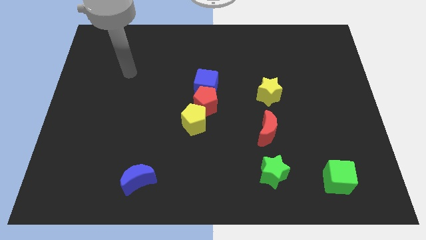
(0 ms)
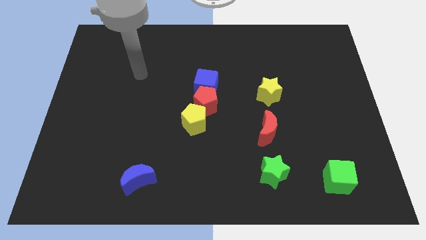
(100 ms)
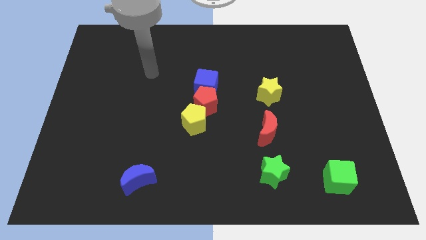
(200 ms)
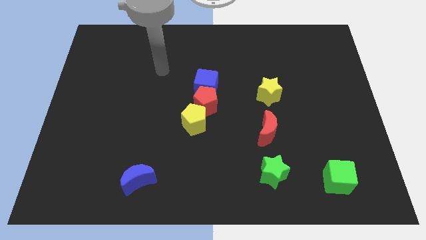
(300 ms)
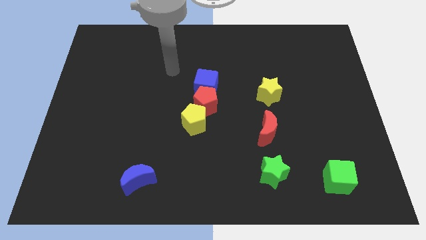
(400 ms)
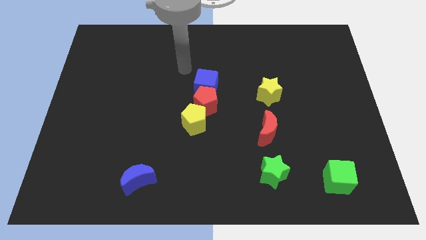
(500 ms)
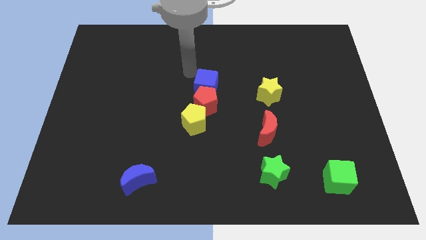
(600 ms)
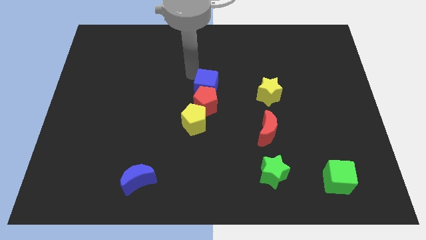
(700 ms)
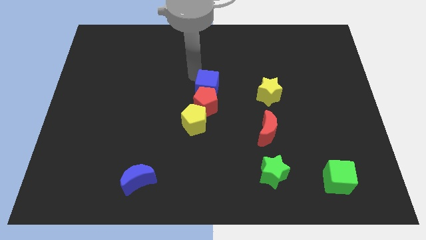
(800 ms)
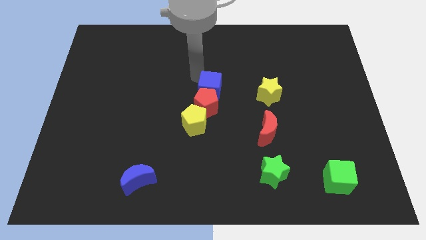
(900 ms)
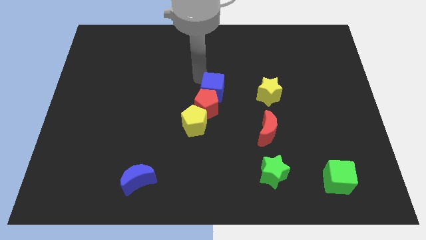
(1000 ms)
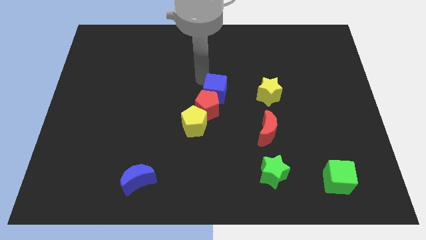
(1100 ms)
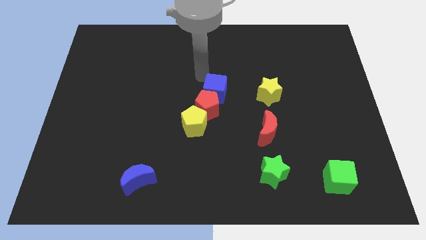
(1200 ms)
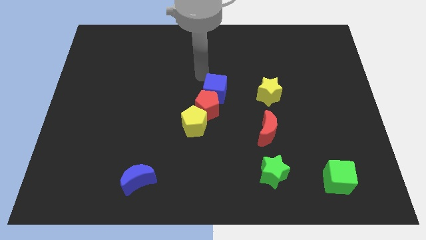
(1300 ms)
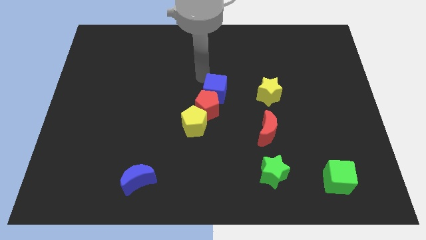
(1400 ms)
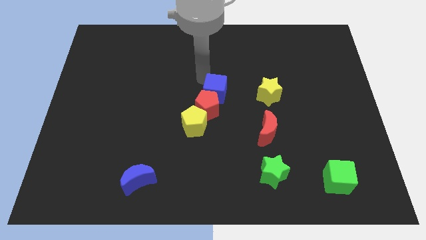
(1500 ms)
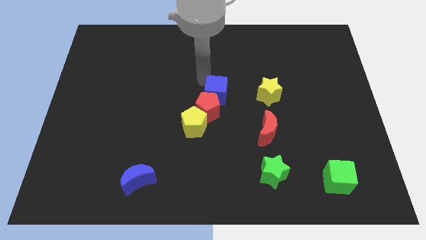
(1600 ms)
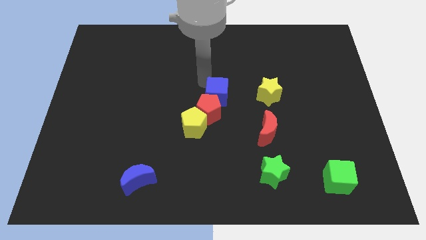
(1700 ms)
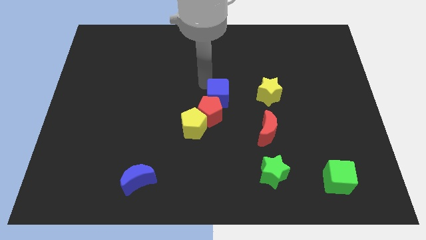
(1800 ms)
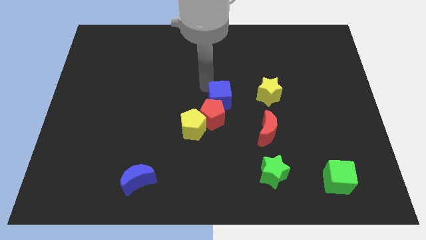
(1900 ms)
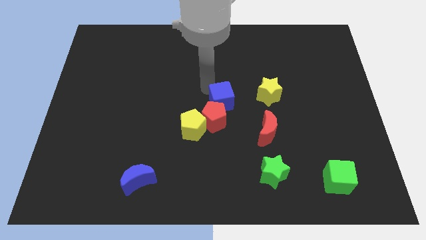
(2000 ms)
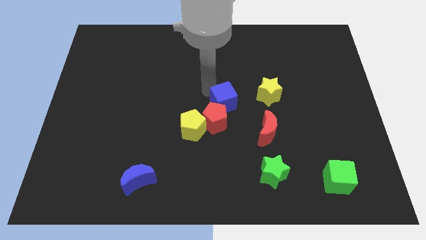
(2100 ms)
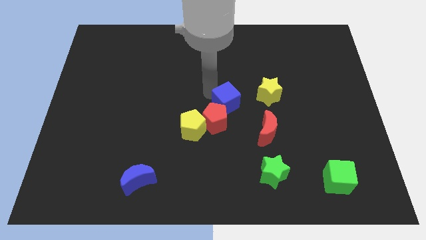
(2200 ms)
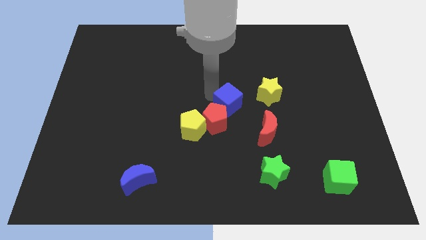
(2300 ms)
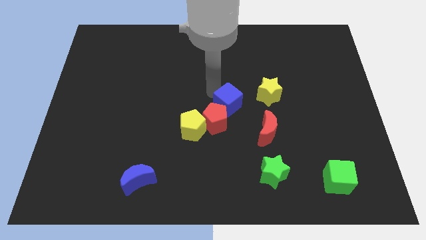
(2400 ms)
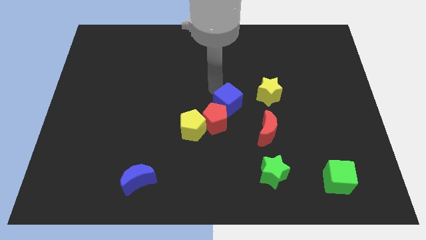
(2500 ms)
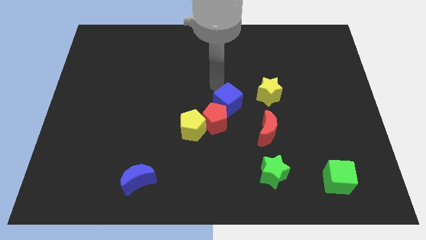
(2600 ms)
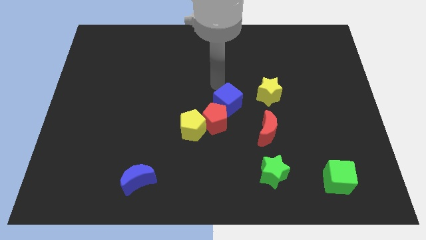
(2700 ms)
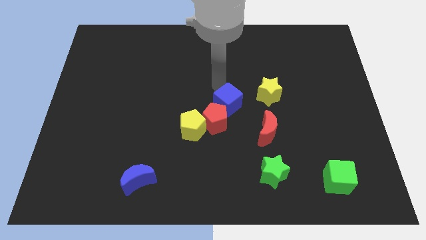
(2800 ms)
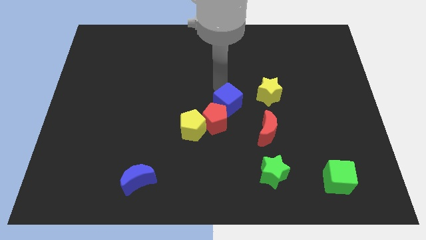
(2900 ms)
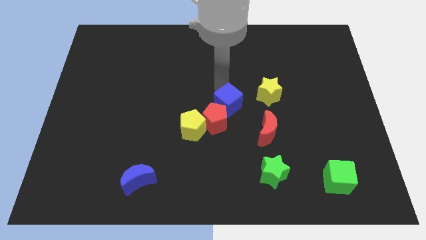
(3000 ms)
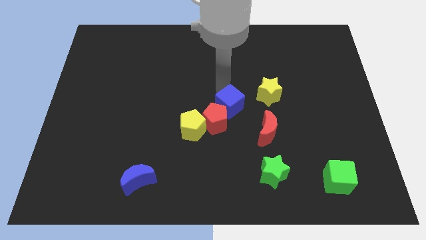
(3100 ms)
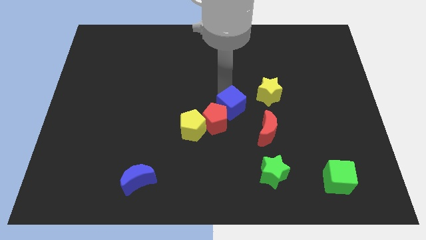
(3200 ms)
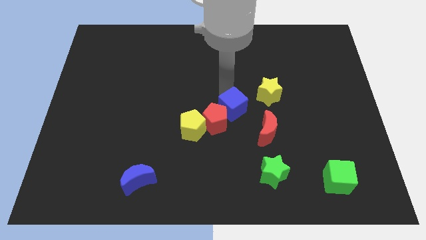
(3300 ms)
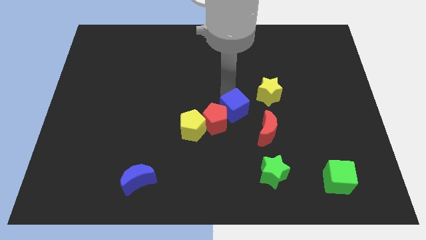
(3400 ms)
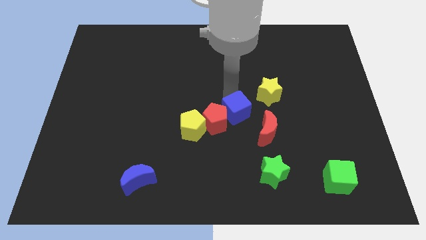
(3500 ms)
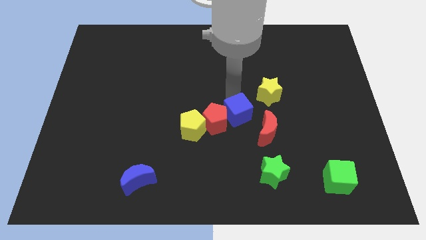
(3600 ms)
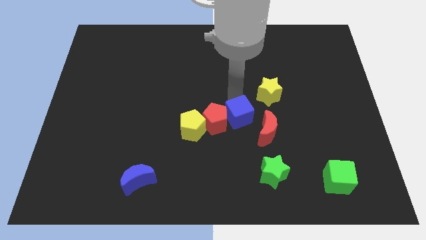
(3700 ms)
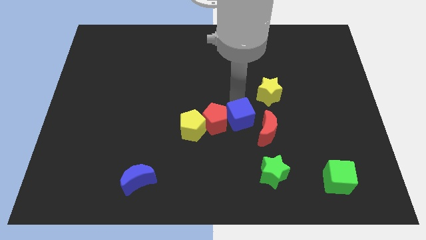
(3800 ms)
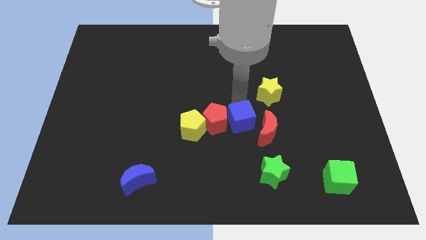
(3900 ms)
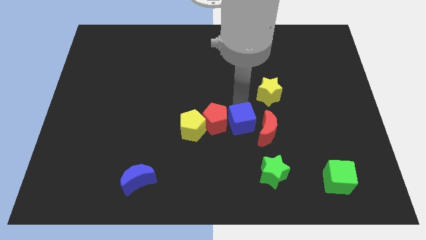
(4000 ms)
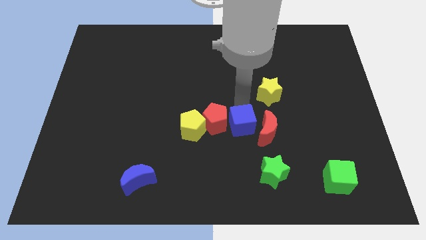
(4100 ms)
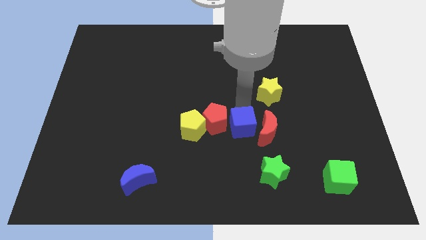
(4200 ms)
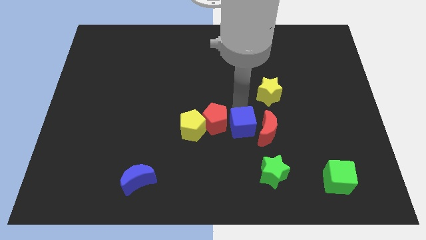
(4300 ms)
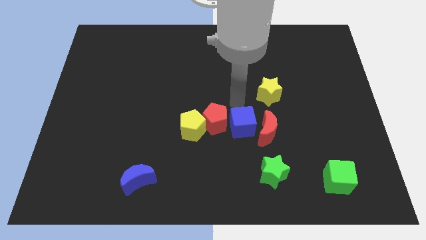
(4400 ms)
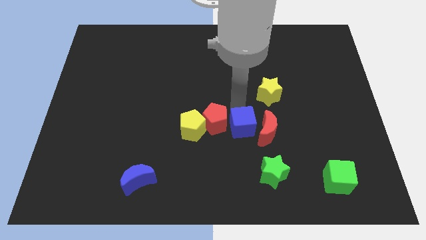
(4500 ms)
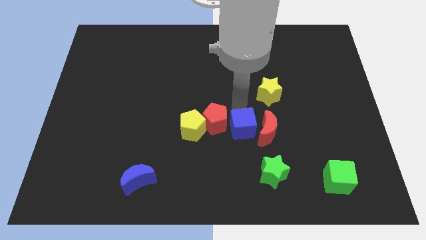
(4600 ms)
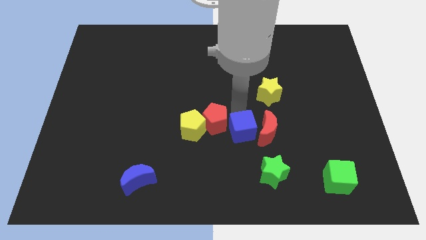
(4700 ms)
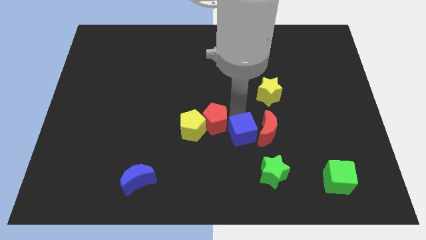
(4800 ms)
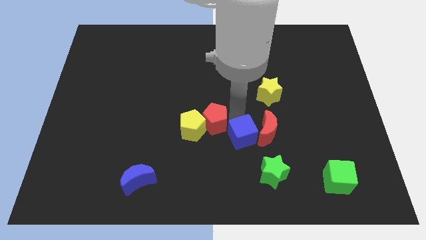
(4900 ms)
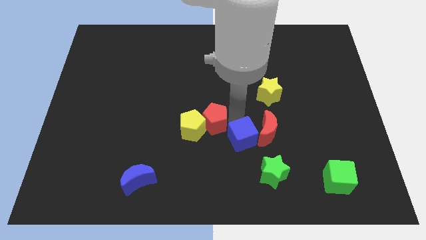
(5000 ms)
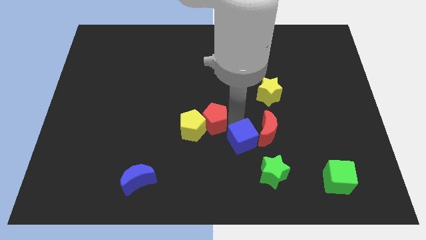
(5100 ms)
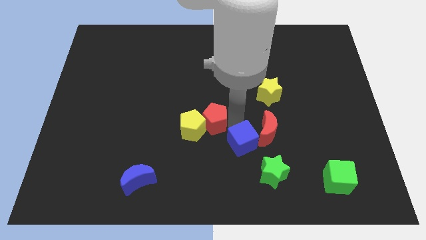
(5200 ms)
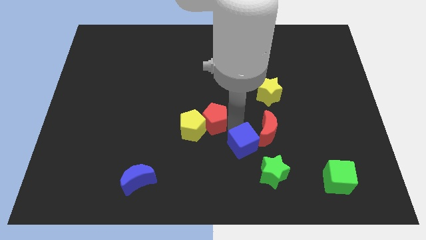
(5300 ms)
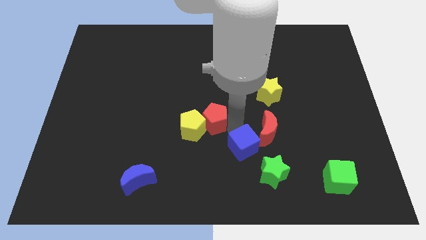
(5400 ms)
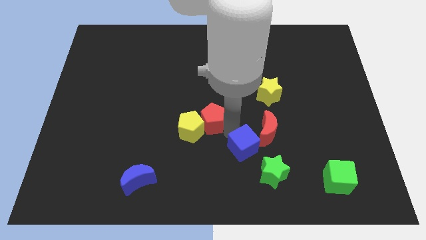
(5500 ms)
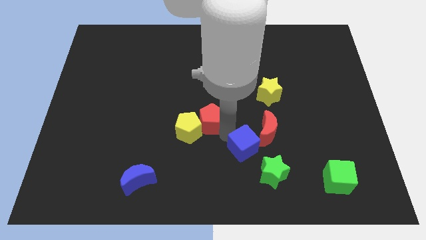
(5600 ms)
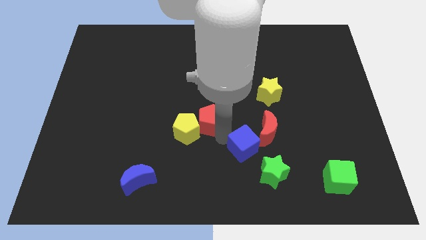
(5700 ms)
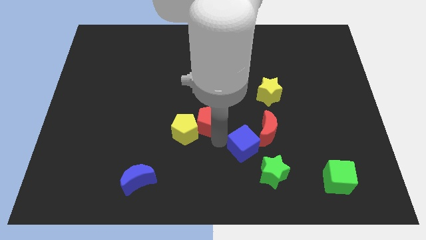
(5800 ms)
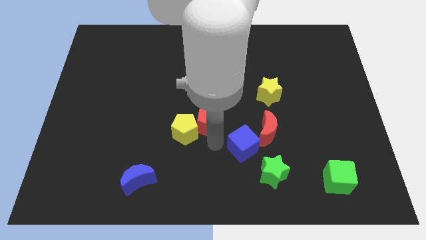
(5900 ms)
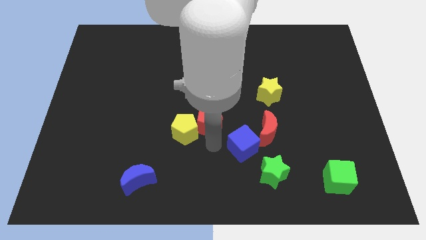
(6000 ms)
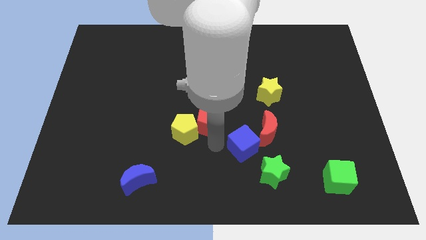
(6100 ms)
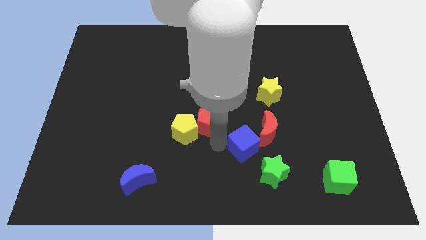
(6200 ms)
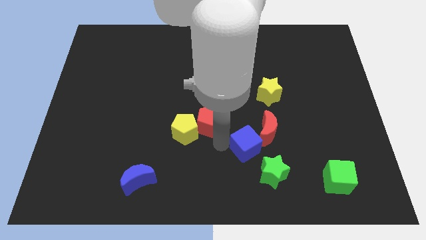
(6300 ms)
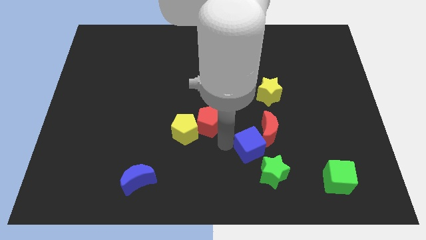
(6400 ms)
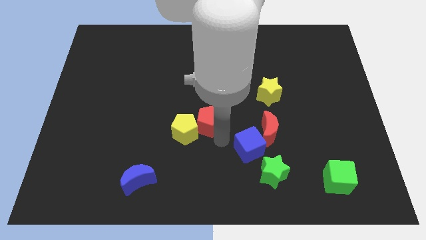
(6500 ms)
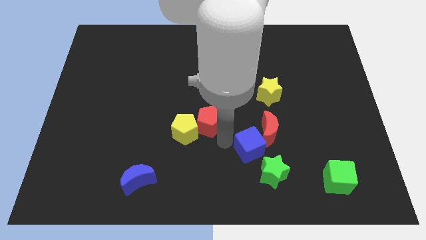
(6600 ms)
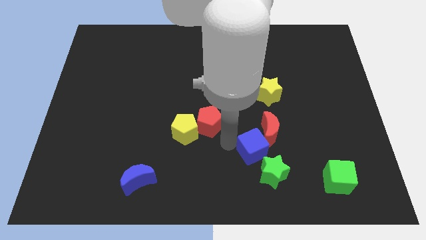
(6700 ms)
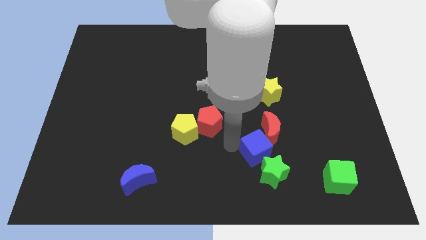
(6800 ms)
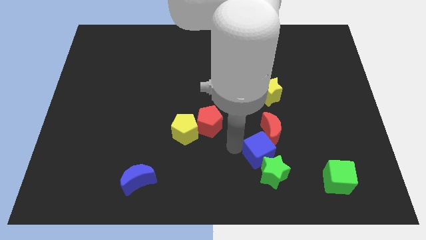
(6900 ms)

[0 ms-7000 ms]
move the blue cube downwards and then right

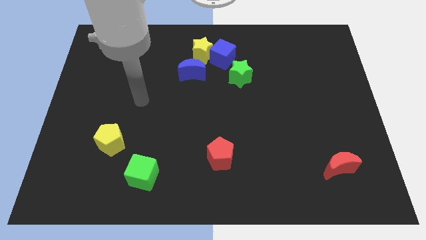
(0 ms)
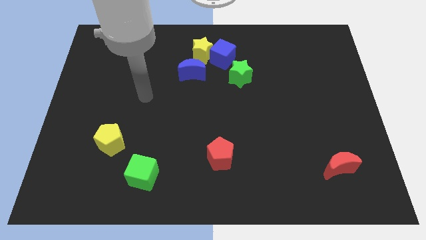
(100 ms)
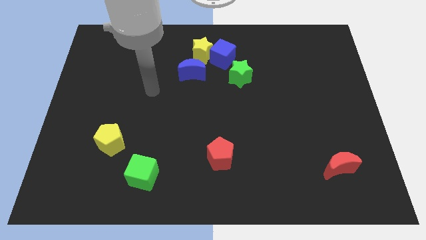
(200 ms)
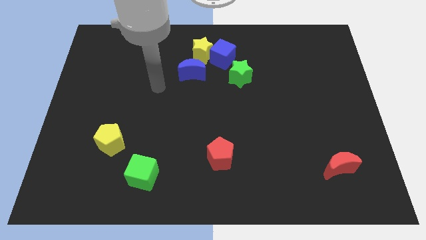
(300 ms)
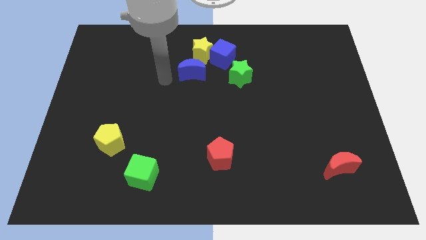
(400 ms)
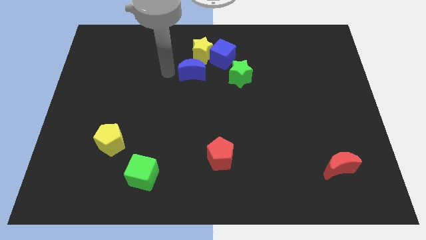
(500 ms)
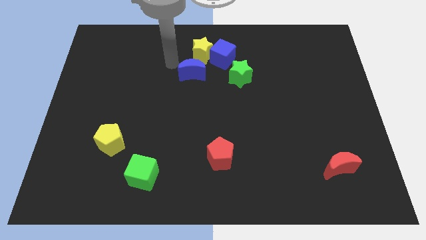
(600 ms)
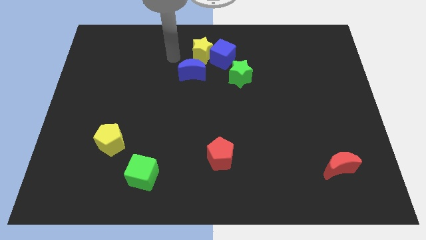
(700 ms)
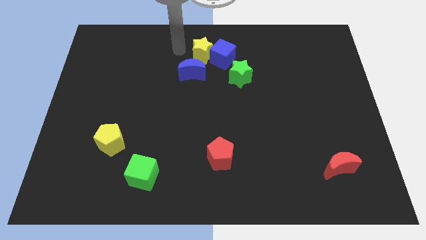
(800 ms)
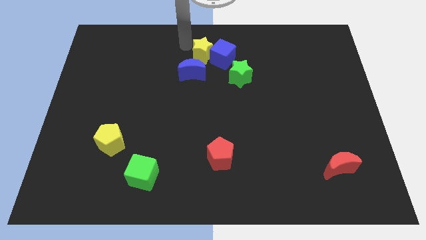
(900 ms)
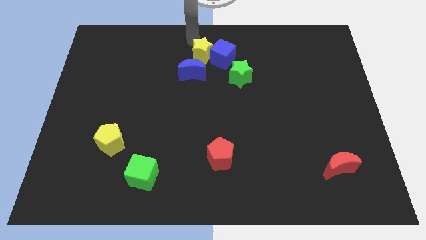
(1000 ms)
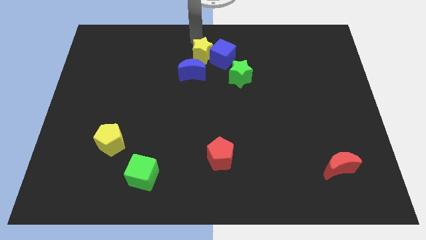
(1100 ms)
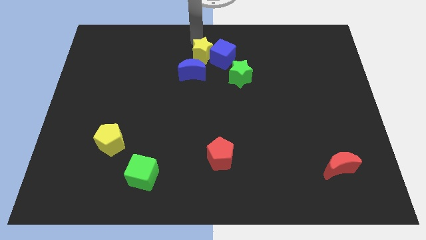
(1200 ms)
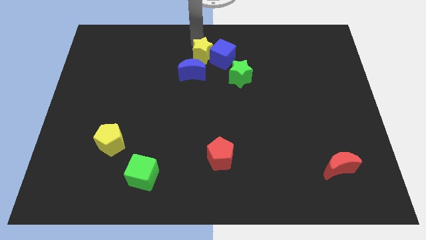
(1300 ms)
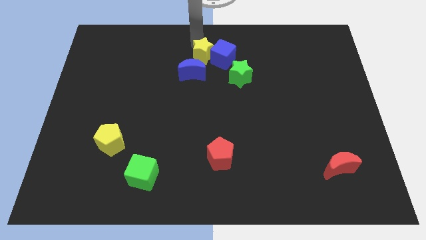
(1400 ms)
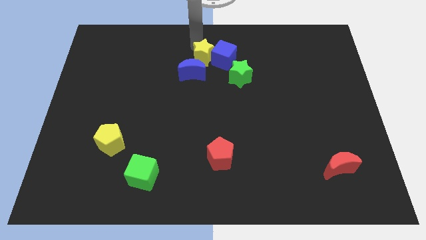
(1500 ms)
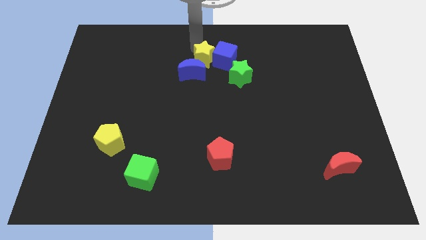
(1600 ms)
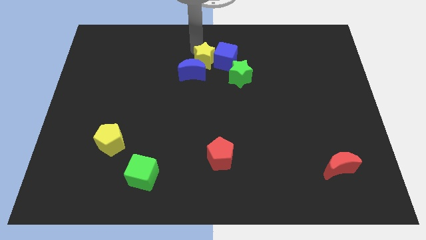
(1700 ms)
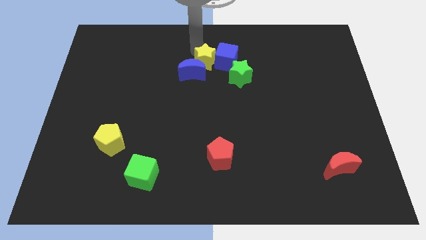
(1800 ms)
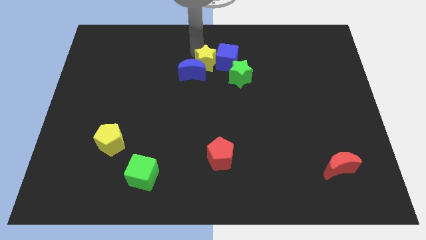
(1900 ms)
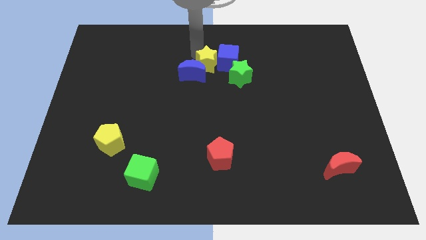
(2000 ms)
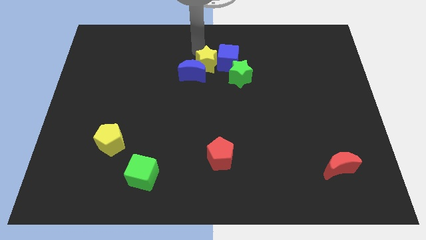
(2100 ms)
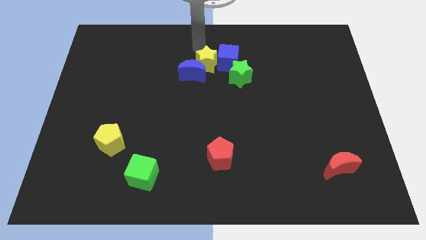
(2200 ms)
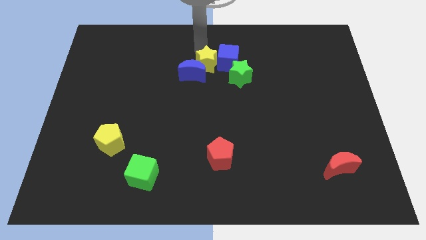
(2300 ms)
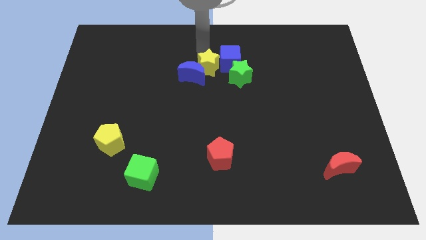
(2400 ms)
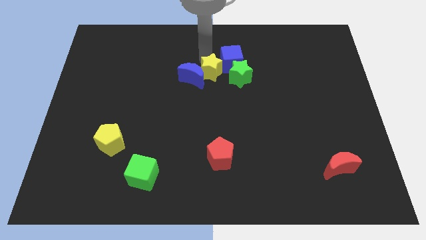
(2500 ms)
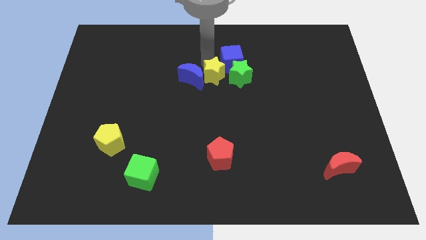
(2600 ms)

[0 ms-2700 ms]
slightly slide the yellow star down and right diagonally
